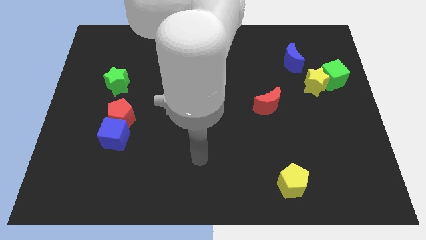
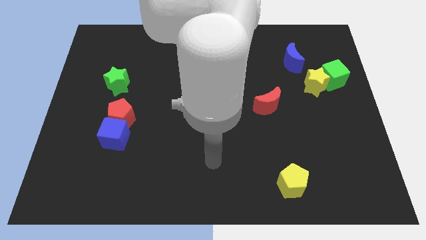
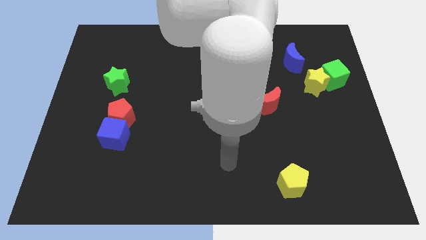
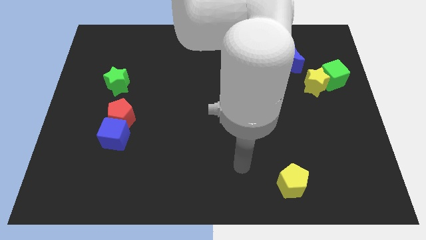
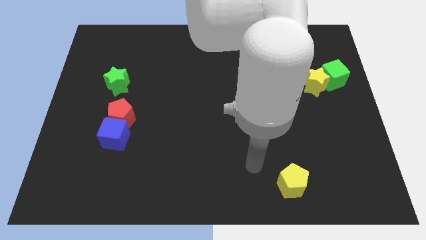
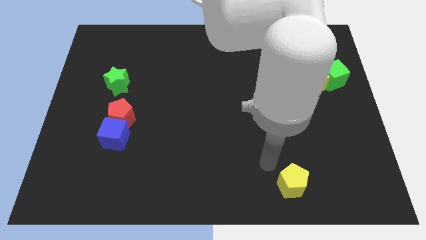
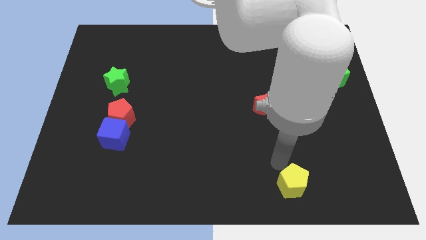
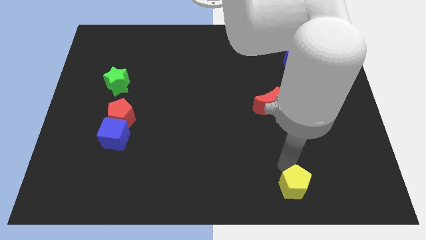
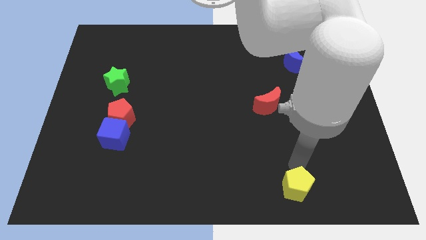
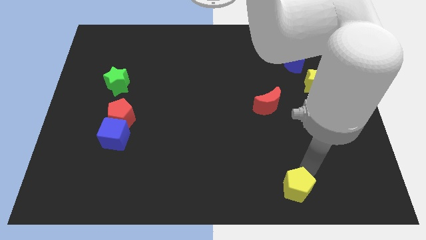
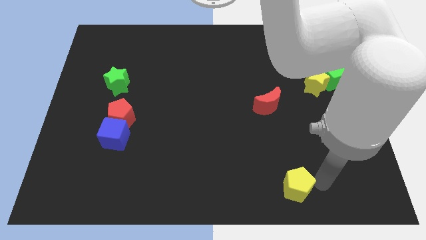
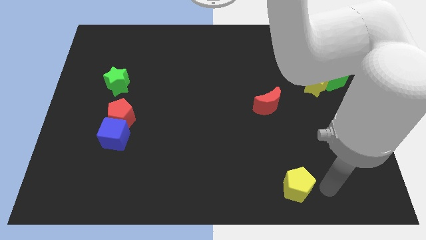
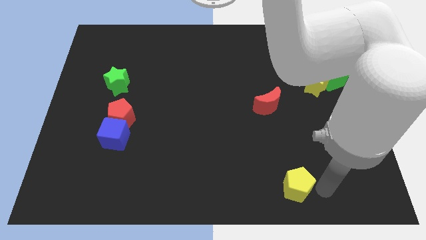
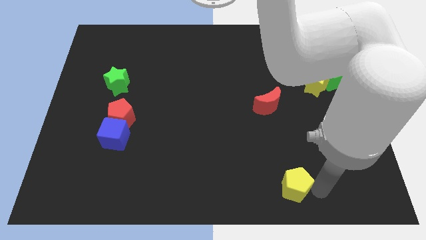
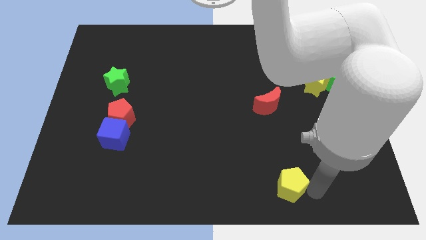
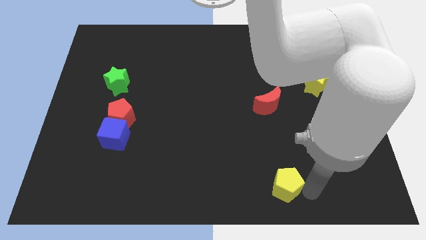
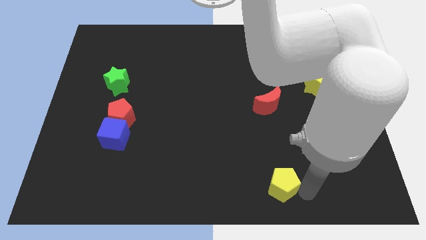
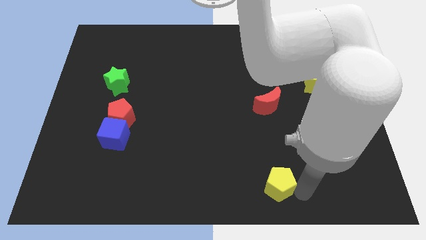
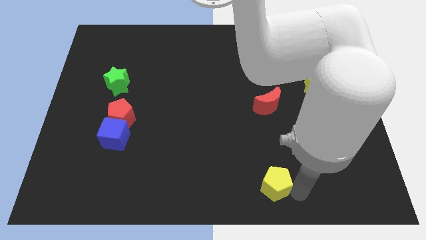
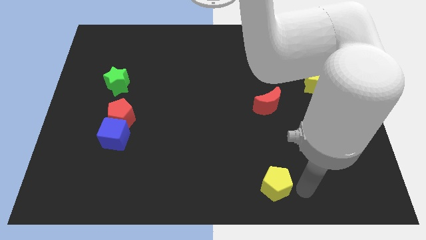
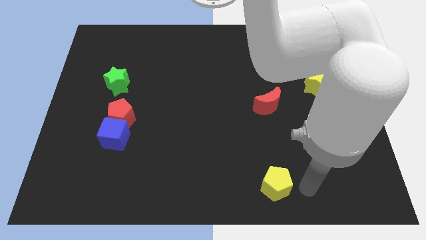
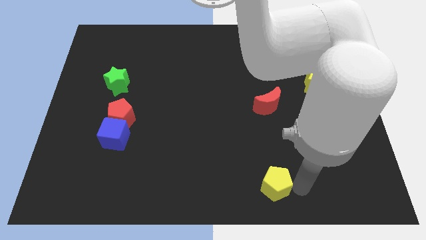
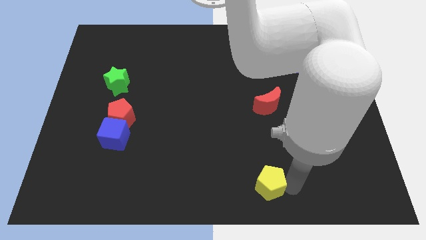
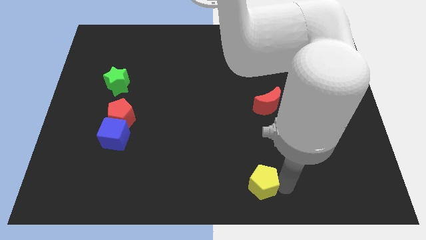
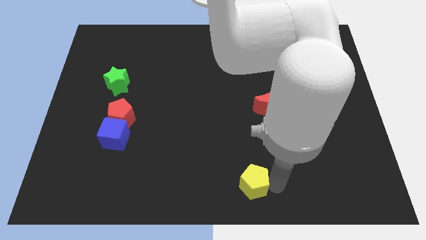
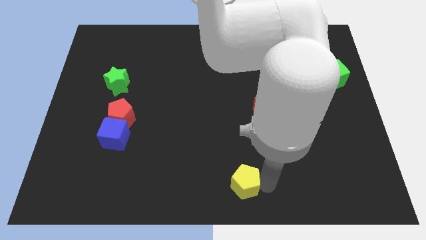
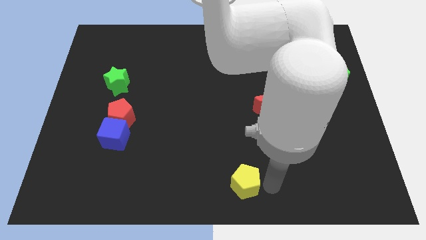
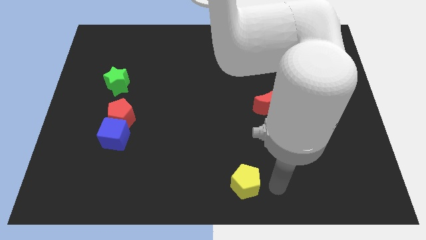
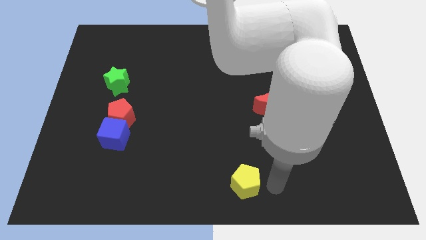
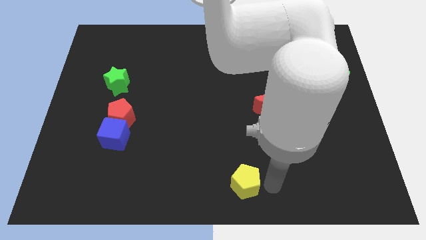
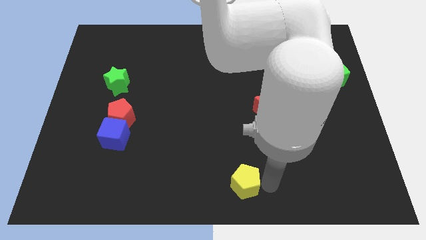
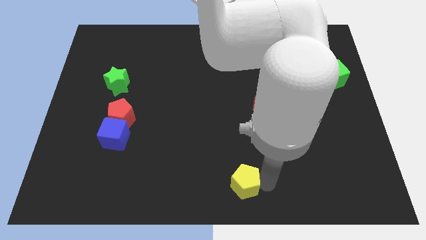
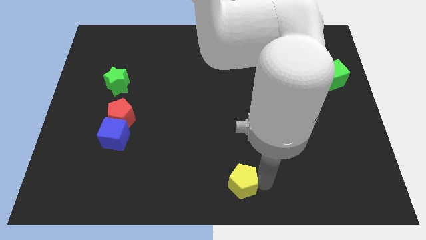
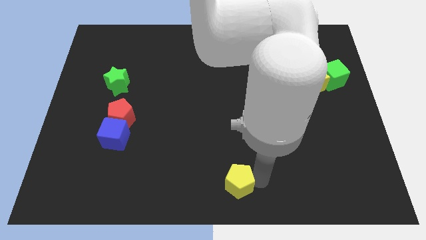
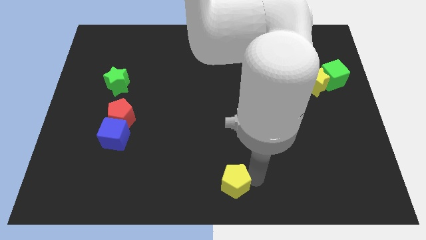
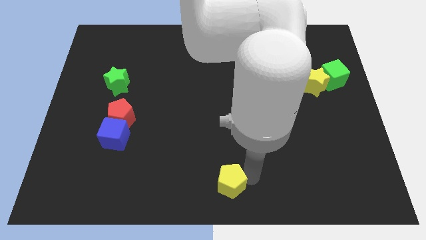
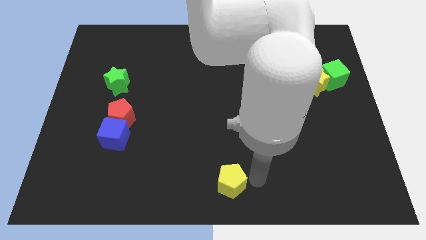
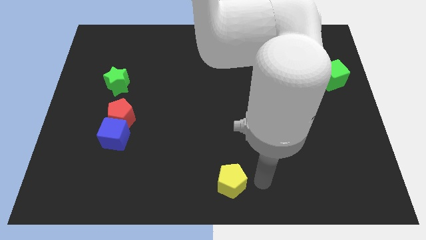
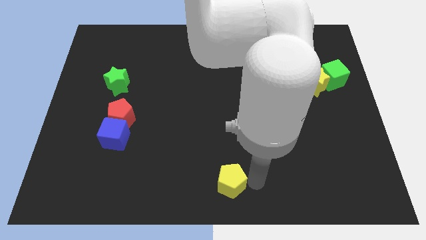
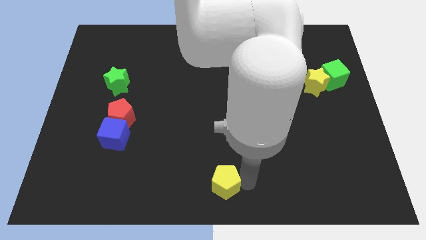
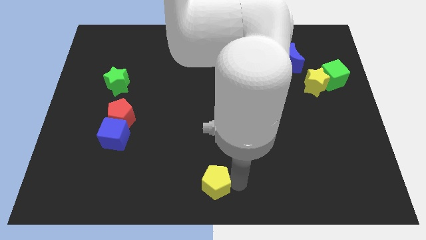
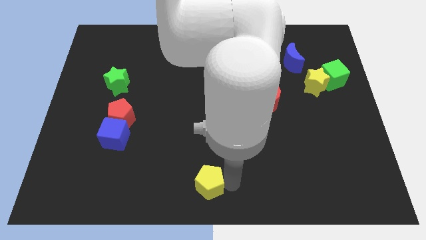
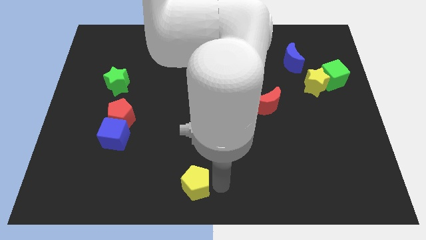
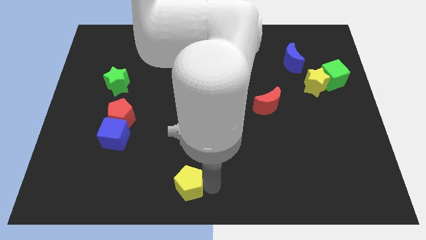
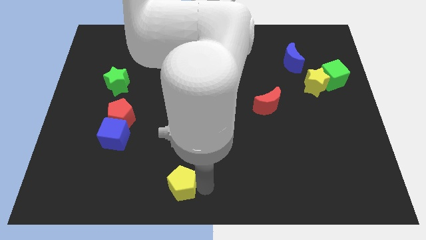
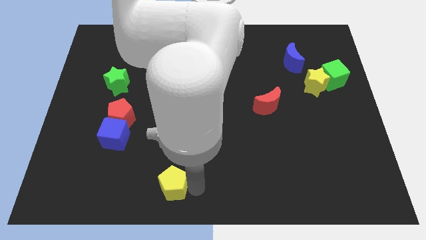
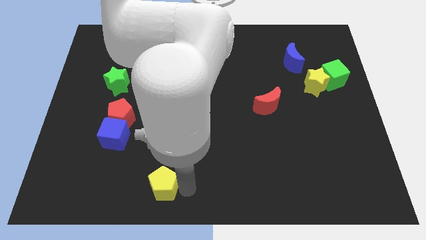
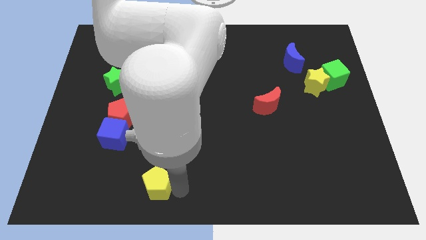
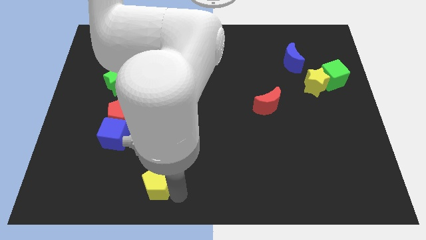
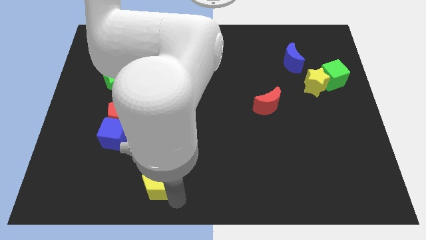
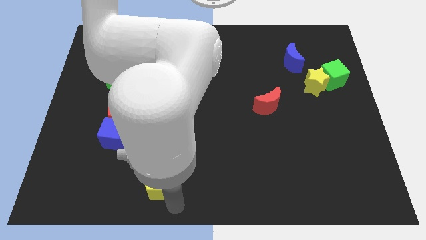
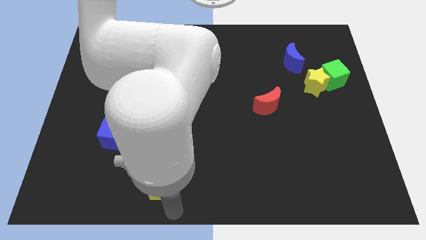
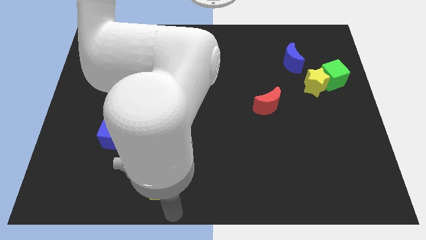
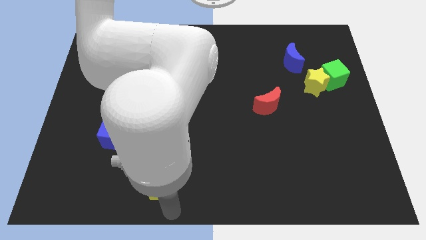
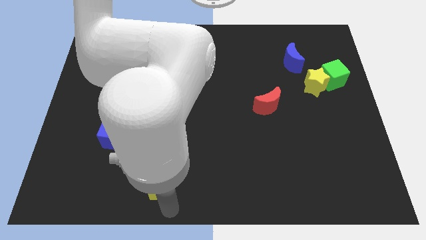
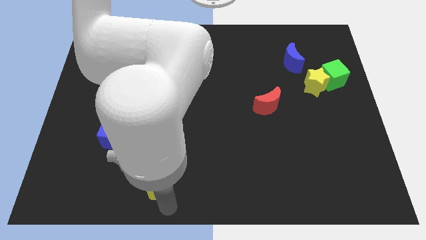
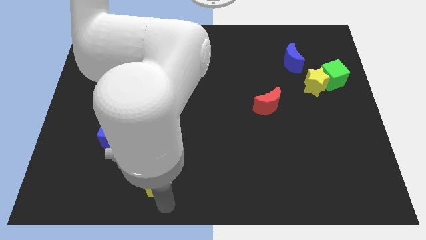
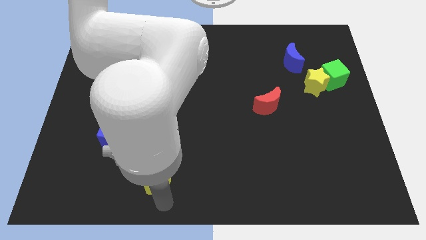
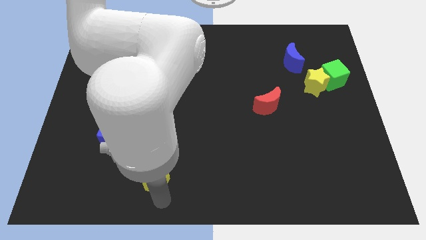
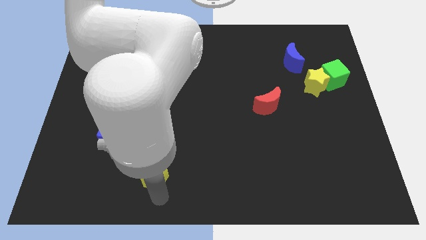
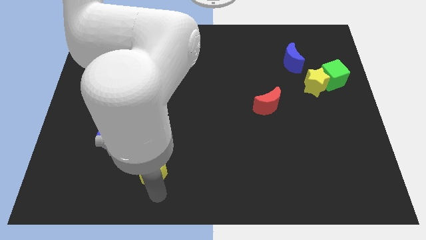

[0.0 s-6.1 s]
move the yellow pentagon to the bottom right side of the blue cube
